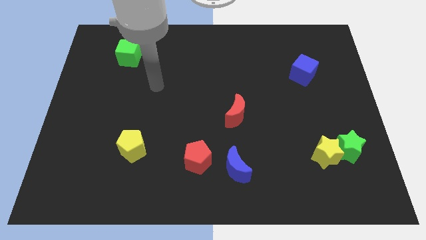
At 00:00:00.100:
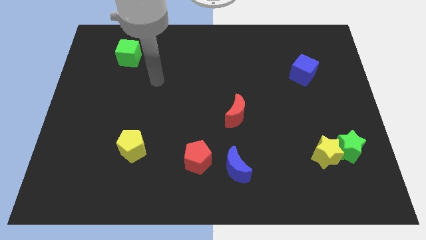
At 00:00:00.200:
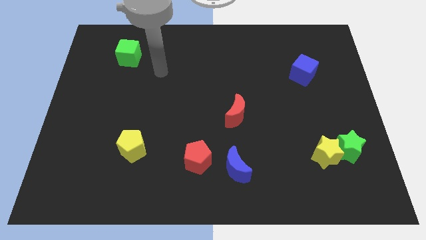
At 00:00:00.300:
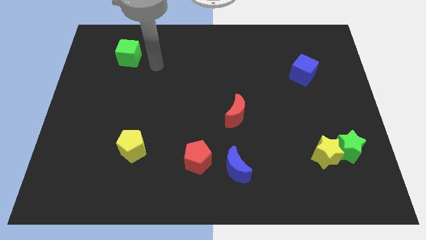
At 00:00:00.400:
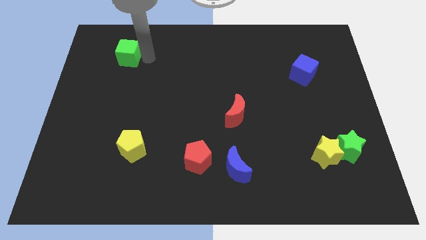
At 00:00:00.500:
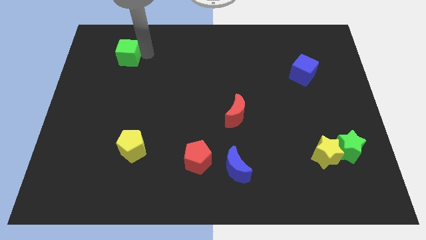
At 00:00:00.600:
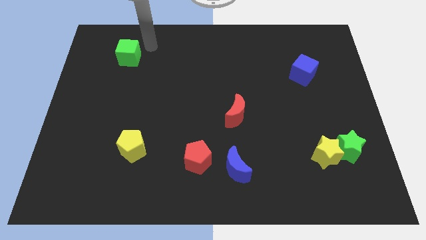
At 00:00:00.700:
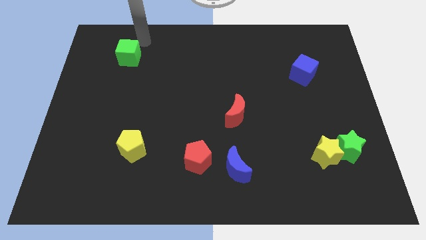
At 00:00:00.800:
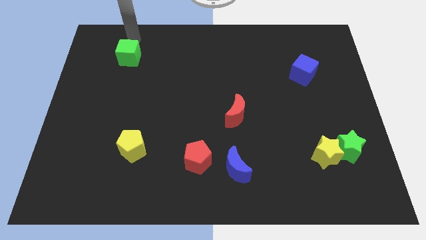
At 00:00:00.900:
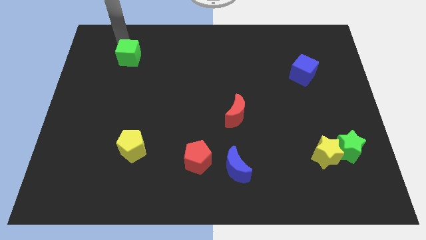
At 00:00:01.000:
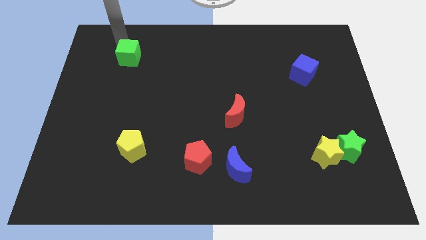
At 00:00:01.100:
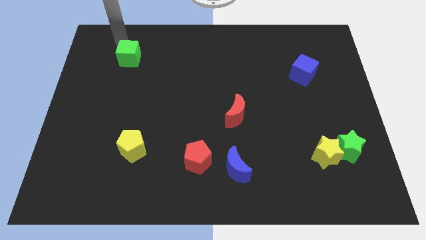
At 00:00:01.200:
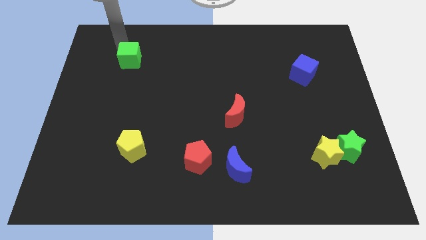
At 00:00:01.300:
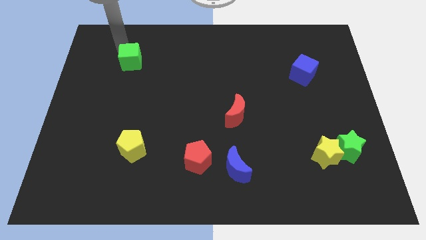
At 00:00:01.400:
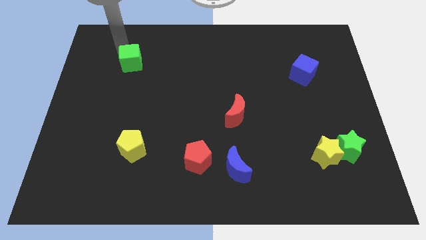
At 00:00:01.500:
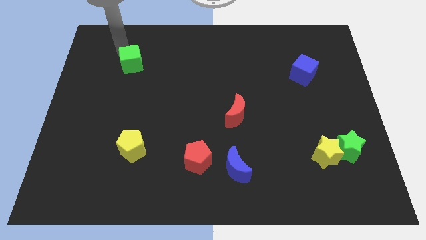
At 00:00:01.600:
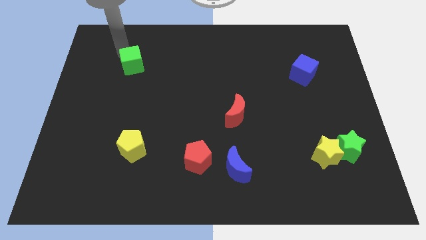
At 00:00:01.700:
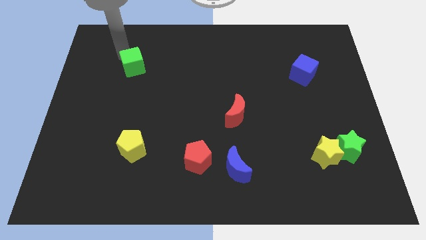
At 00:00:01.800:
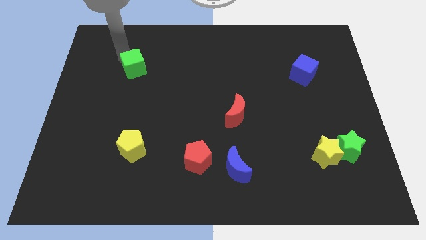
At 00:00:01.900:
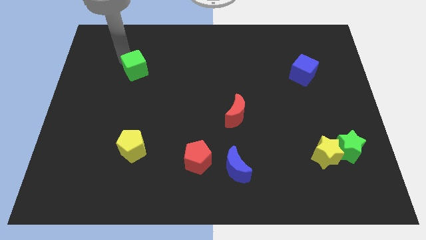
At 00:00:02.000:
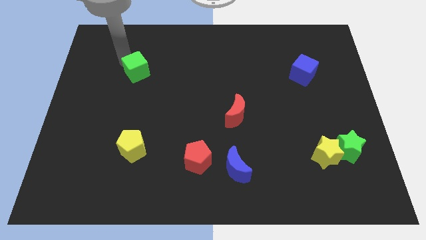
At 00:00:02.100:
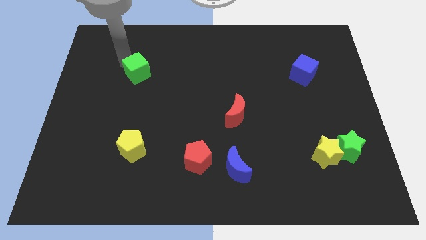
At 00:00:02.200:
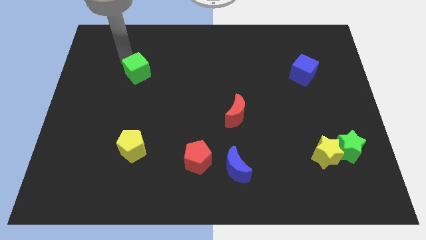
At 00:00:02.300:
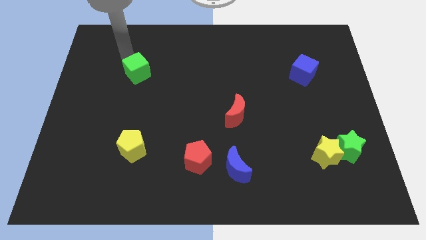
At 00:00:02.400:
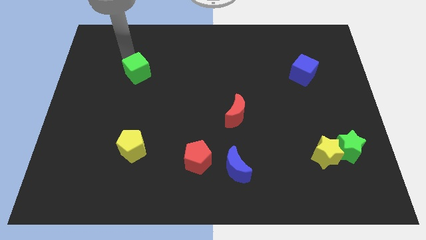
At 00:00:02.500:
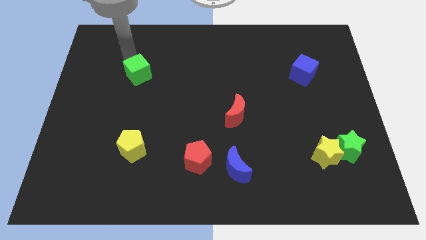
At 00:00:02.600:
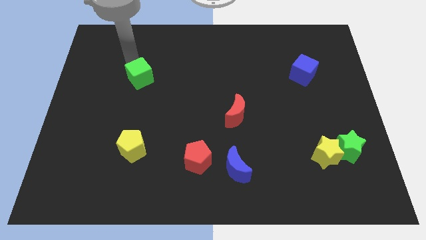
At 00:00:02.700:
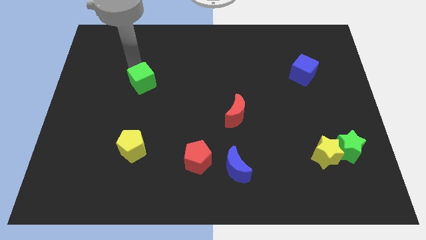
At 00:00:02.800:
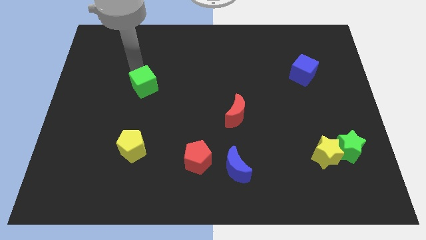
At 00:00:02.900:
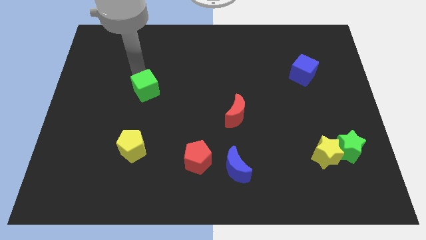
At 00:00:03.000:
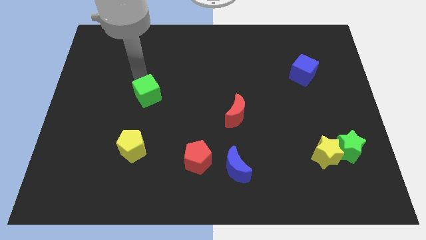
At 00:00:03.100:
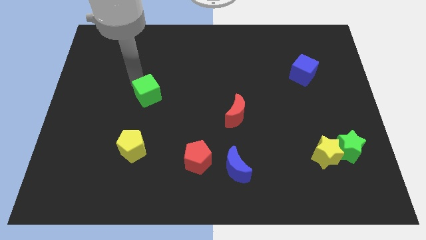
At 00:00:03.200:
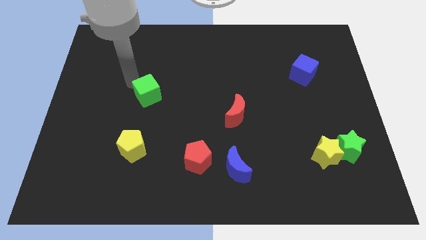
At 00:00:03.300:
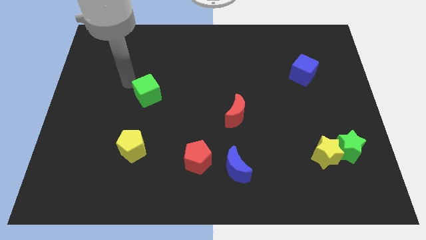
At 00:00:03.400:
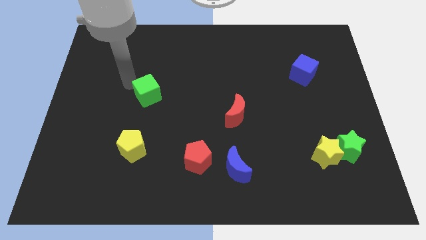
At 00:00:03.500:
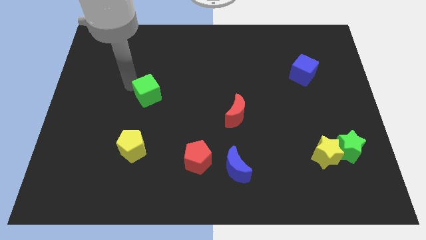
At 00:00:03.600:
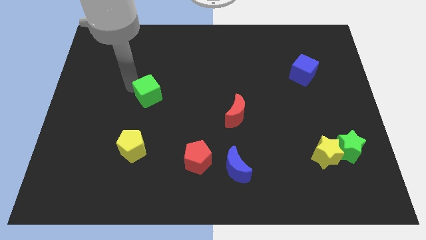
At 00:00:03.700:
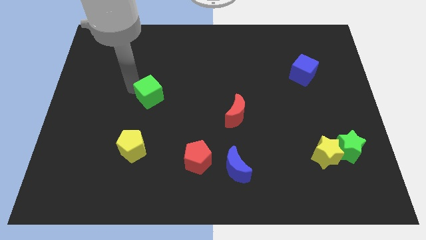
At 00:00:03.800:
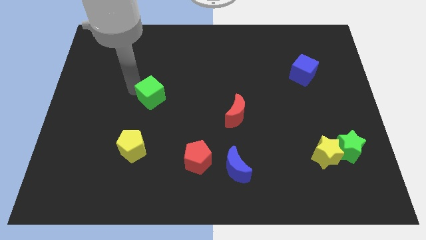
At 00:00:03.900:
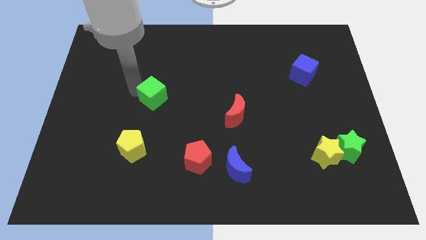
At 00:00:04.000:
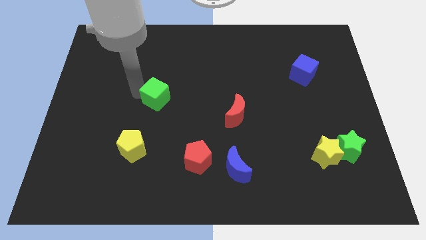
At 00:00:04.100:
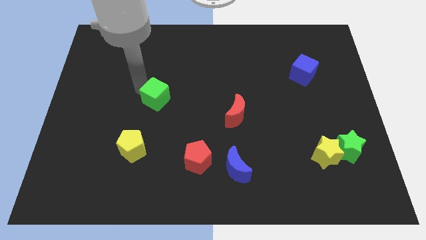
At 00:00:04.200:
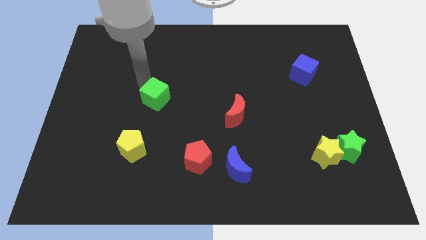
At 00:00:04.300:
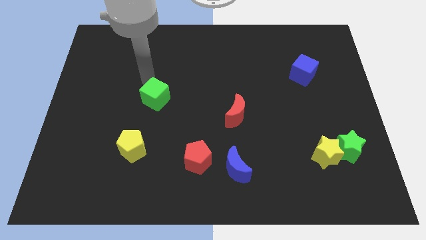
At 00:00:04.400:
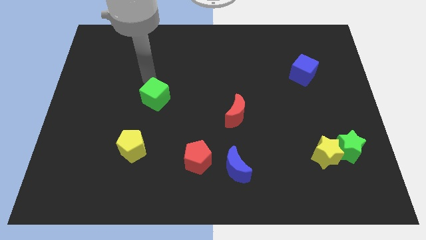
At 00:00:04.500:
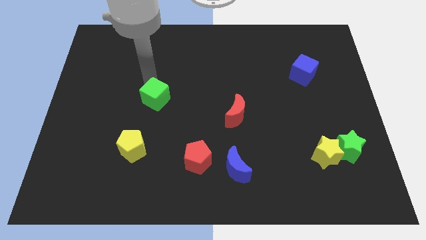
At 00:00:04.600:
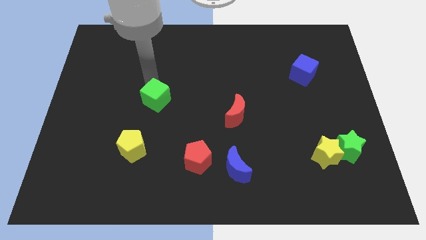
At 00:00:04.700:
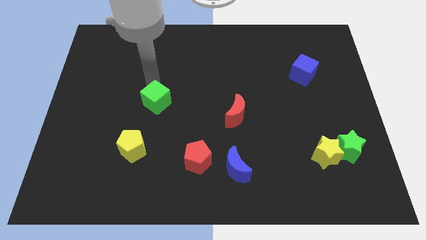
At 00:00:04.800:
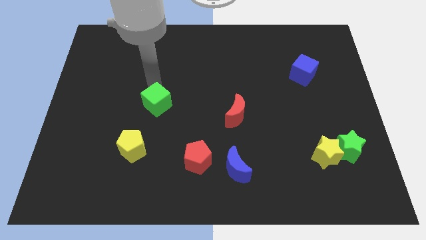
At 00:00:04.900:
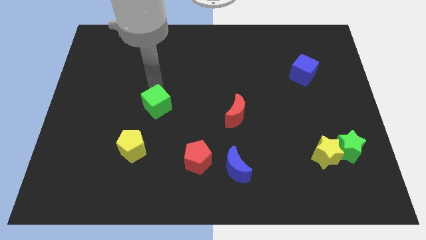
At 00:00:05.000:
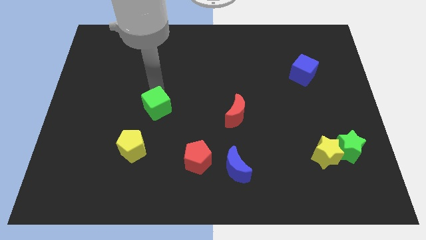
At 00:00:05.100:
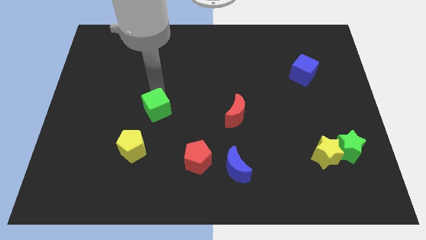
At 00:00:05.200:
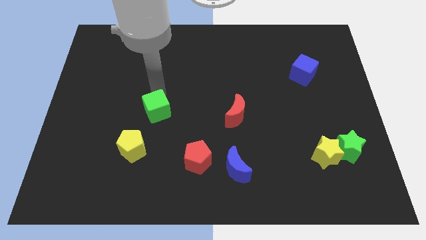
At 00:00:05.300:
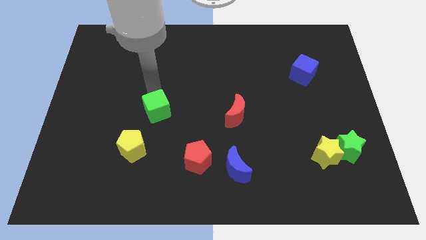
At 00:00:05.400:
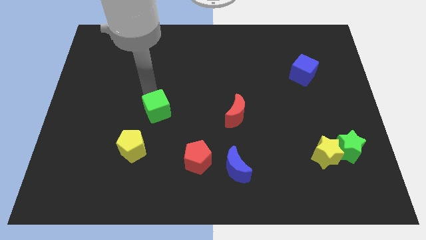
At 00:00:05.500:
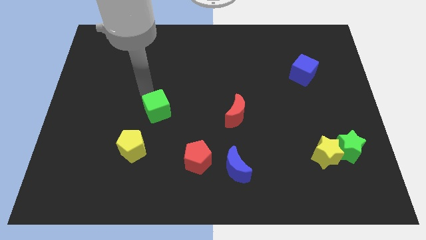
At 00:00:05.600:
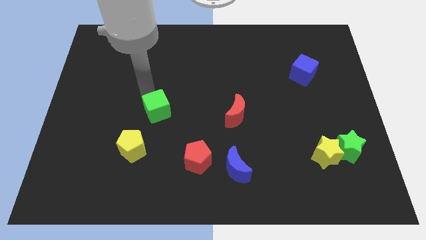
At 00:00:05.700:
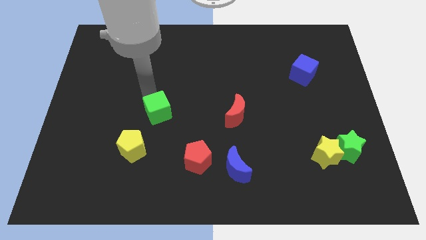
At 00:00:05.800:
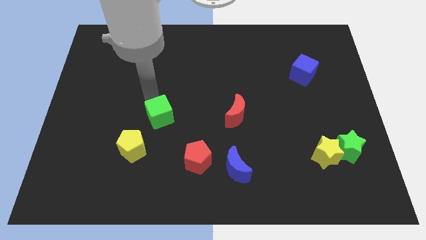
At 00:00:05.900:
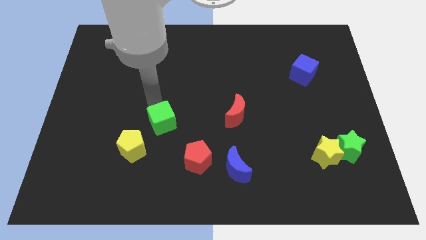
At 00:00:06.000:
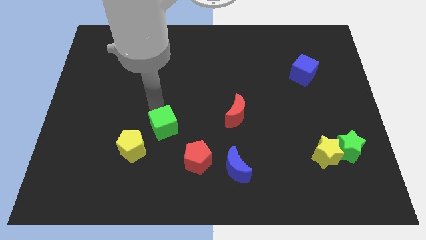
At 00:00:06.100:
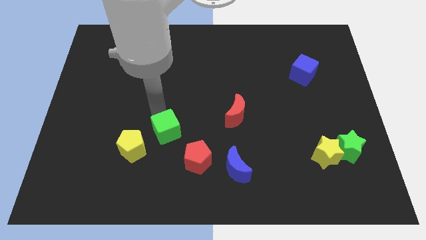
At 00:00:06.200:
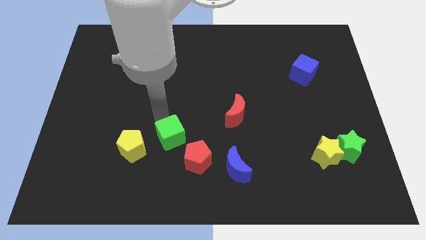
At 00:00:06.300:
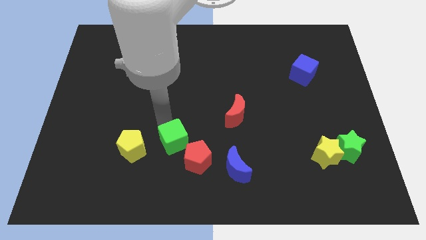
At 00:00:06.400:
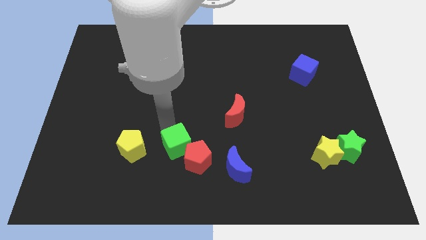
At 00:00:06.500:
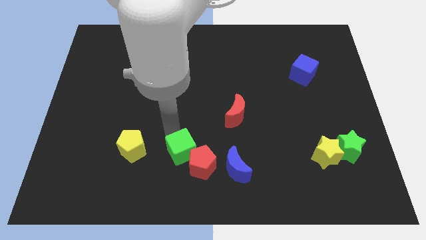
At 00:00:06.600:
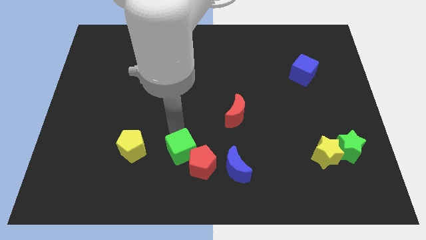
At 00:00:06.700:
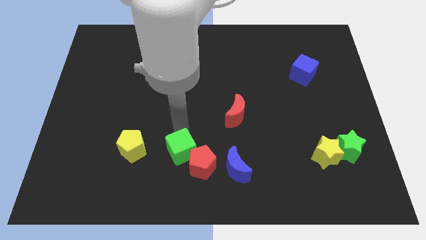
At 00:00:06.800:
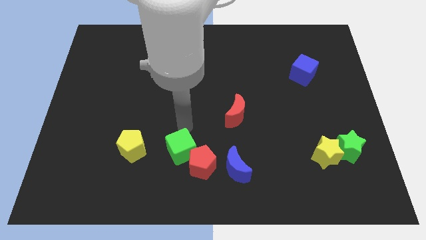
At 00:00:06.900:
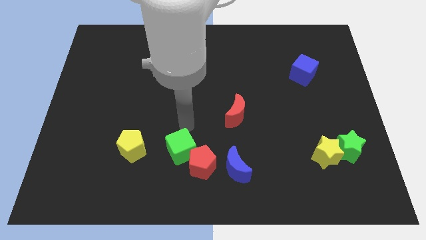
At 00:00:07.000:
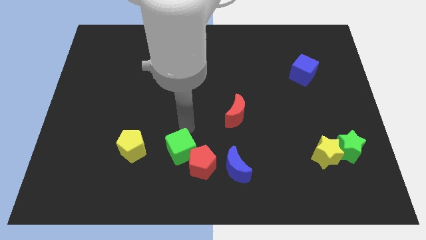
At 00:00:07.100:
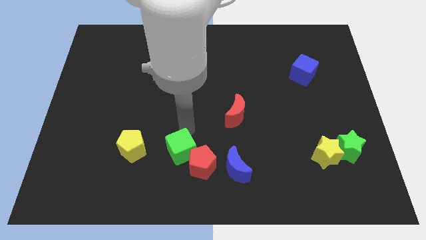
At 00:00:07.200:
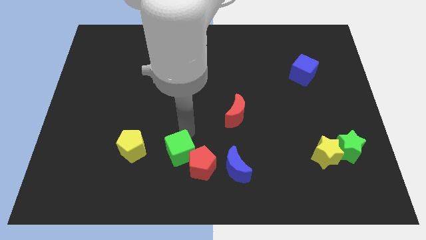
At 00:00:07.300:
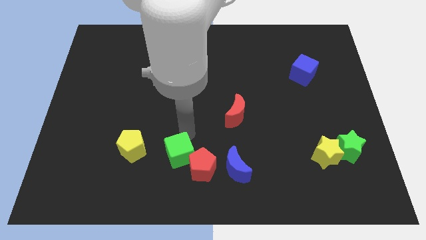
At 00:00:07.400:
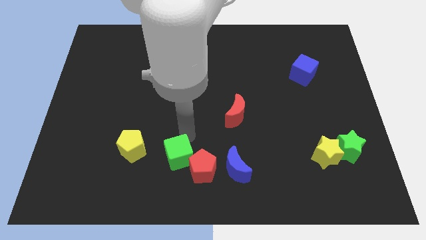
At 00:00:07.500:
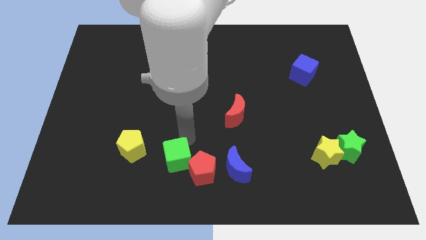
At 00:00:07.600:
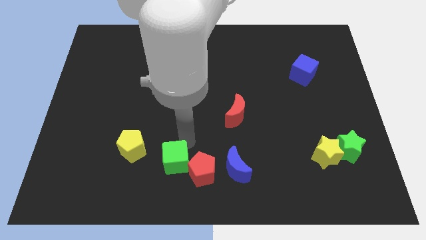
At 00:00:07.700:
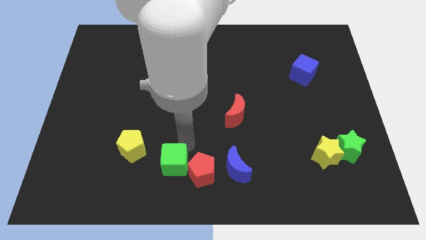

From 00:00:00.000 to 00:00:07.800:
slide the green cube to the bottom side
